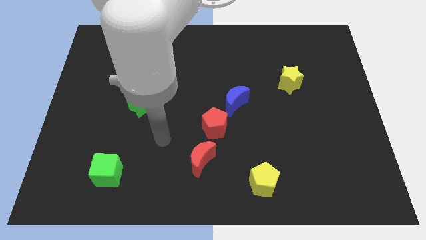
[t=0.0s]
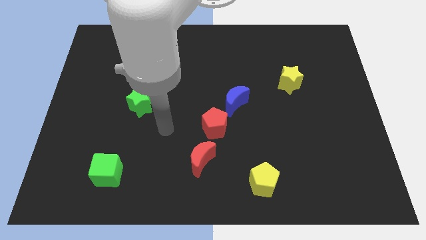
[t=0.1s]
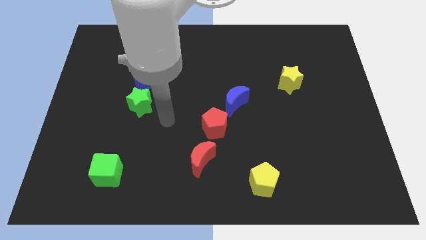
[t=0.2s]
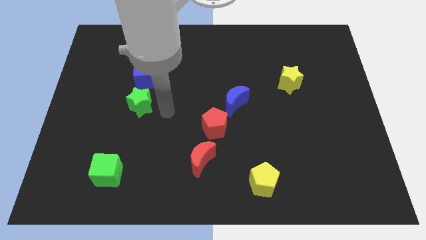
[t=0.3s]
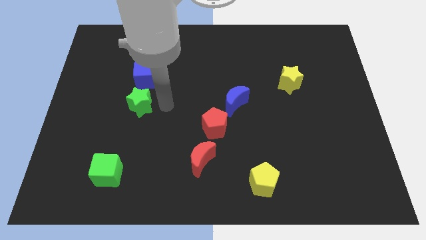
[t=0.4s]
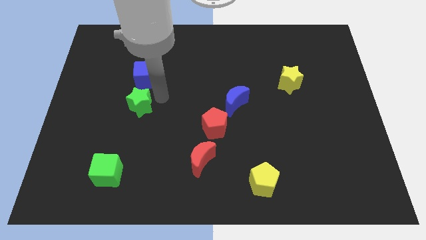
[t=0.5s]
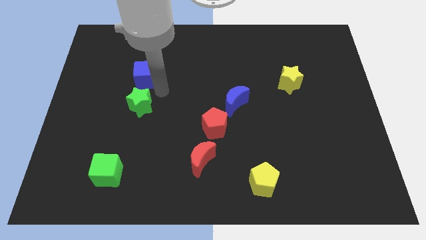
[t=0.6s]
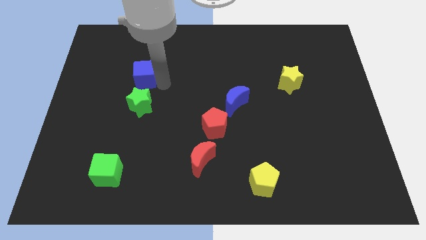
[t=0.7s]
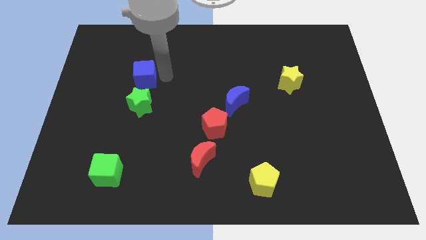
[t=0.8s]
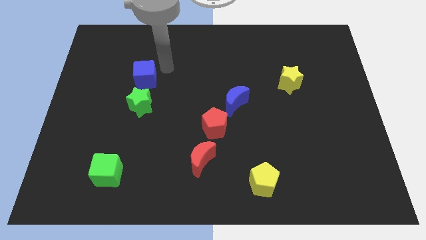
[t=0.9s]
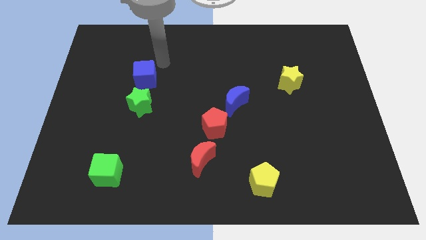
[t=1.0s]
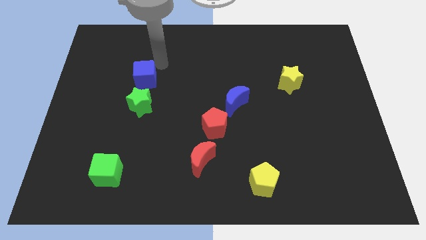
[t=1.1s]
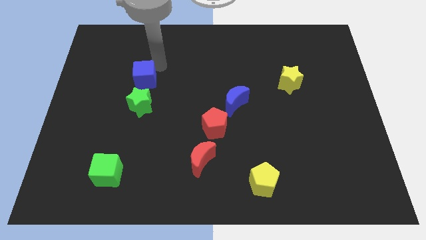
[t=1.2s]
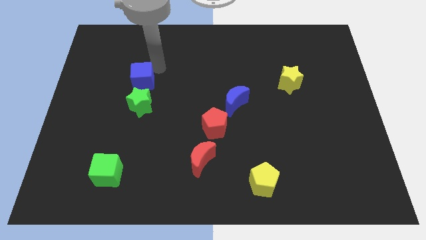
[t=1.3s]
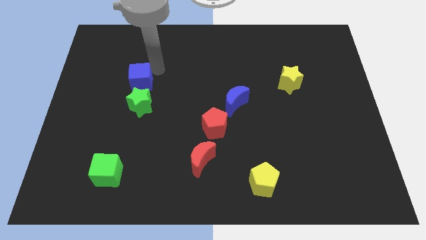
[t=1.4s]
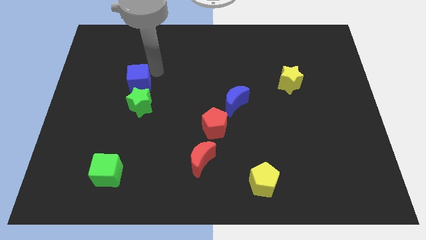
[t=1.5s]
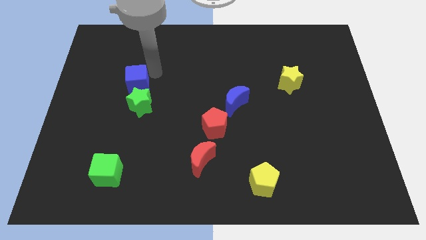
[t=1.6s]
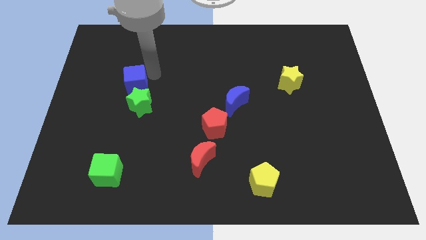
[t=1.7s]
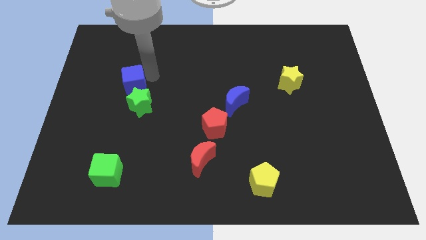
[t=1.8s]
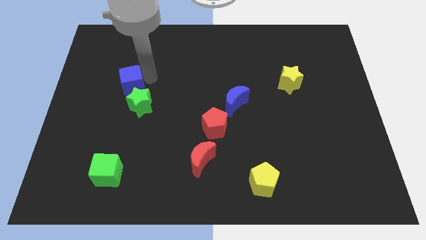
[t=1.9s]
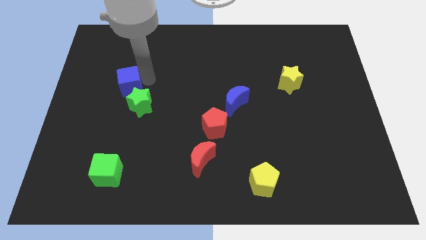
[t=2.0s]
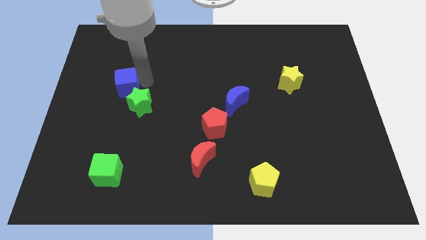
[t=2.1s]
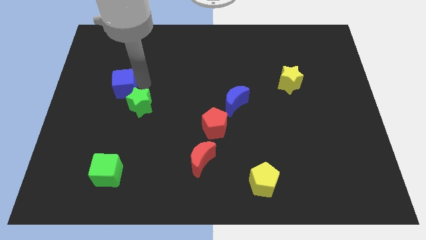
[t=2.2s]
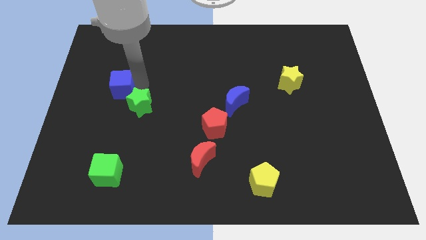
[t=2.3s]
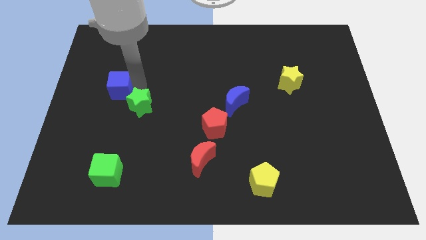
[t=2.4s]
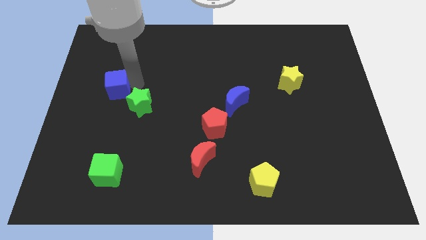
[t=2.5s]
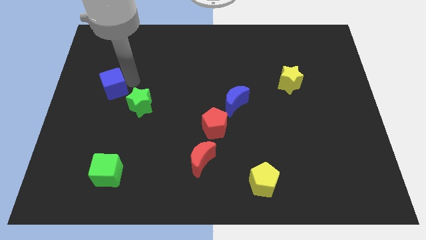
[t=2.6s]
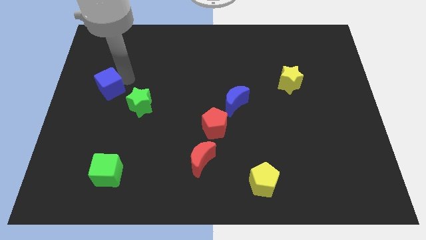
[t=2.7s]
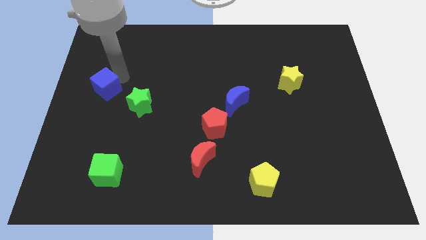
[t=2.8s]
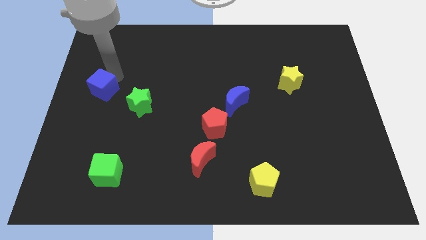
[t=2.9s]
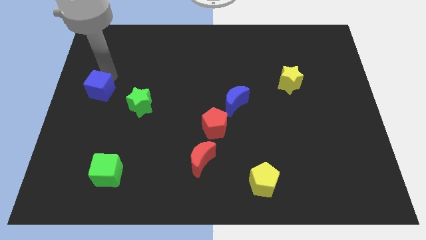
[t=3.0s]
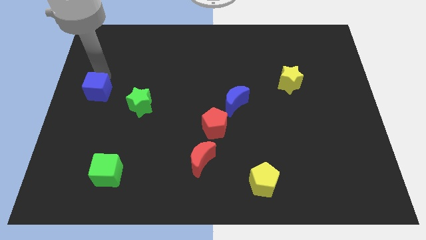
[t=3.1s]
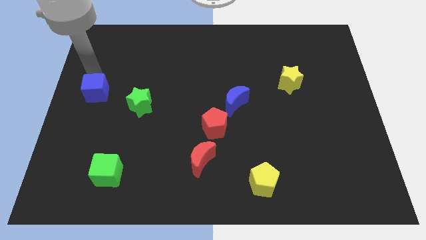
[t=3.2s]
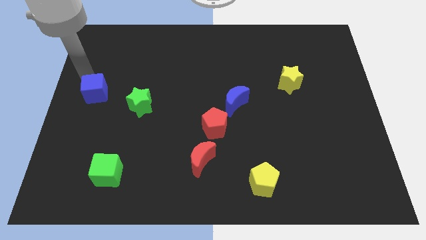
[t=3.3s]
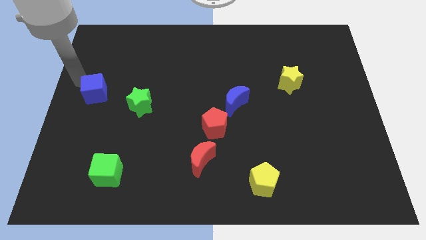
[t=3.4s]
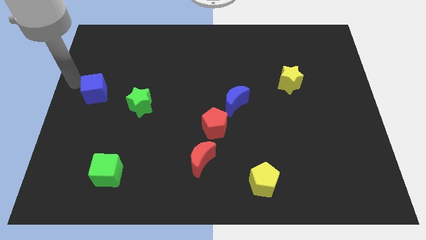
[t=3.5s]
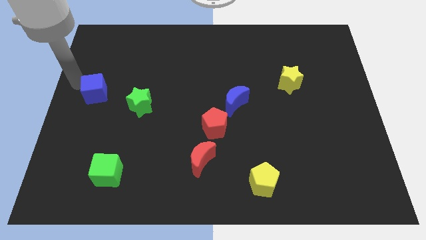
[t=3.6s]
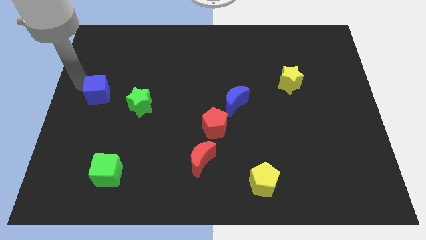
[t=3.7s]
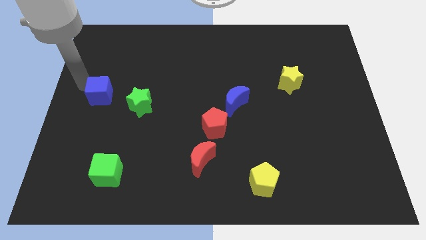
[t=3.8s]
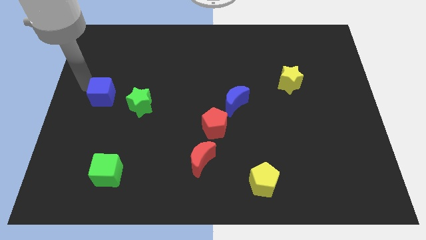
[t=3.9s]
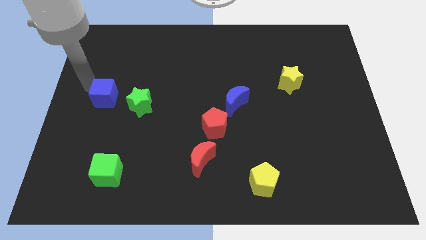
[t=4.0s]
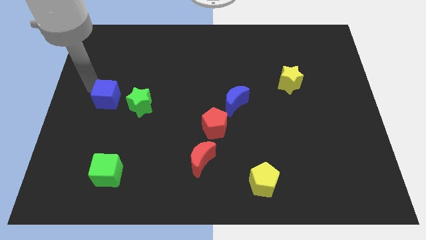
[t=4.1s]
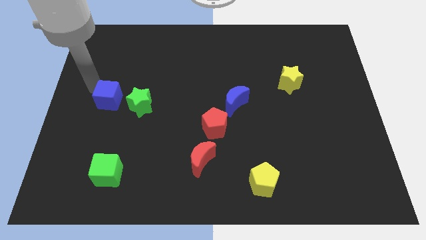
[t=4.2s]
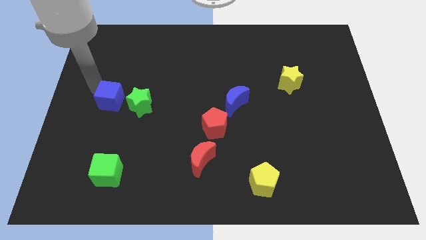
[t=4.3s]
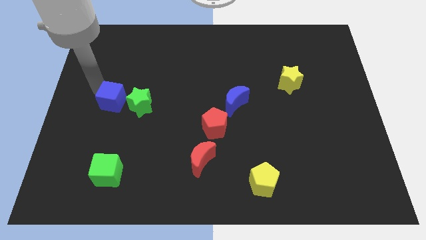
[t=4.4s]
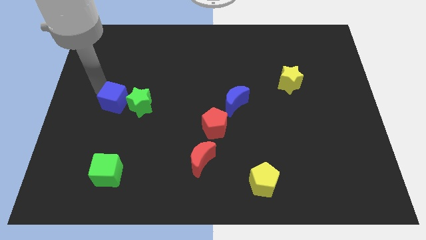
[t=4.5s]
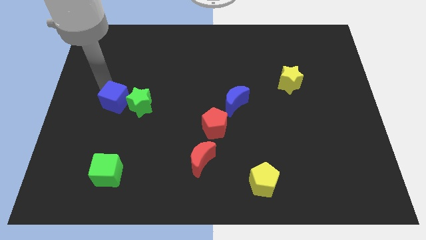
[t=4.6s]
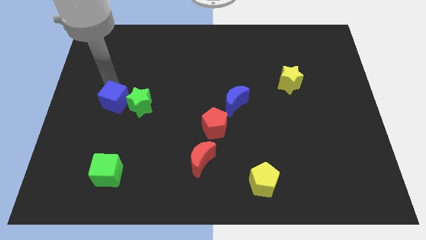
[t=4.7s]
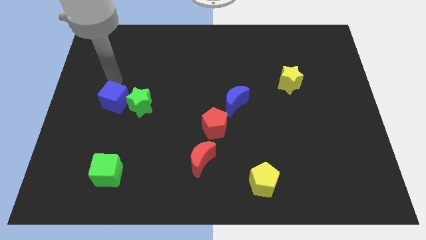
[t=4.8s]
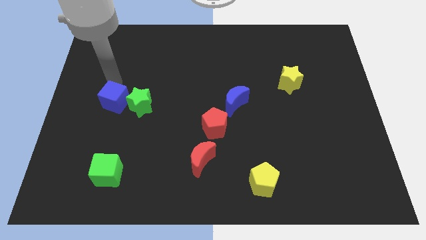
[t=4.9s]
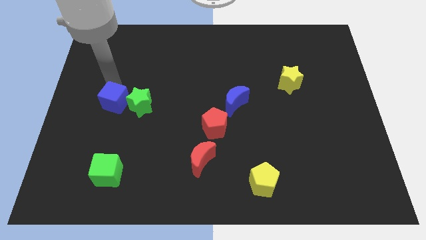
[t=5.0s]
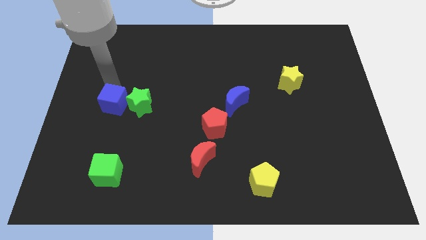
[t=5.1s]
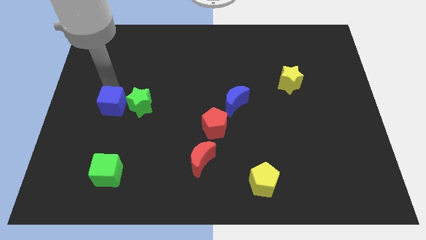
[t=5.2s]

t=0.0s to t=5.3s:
slide the blue cube diagonally down and to the left of the green star

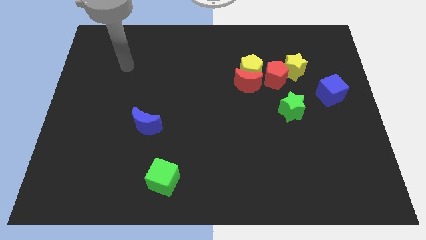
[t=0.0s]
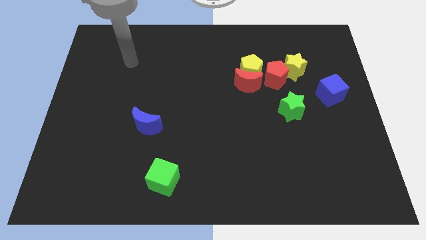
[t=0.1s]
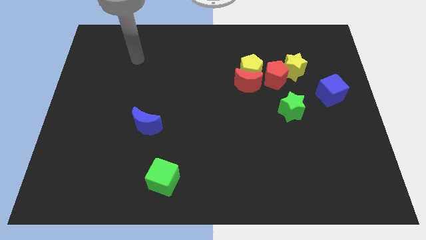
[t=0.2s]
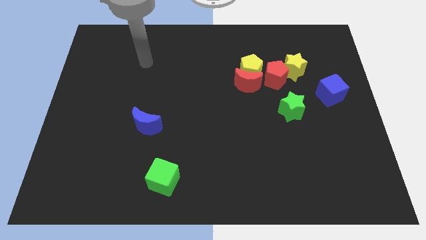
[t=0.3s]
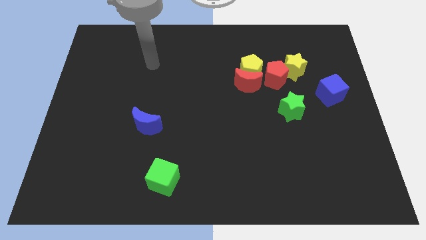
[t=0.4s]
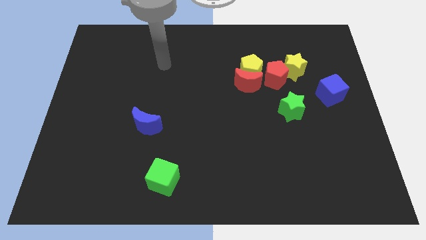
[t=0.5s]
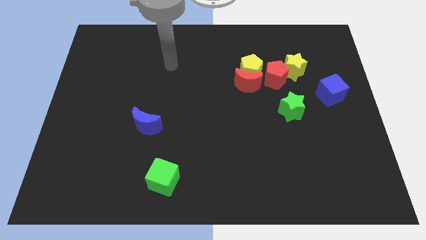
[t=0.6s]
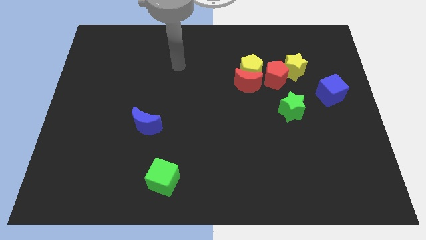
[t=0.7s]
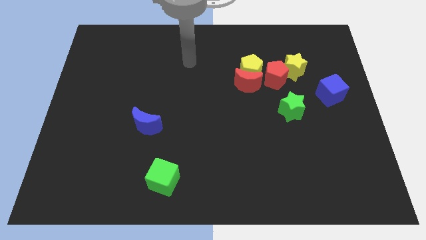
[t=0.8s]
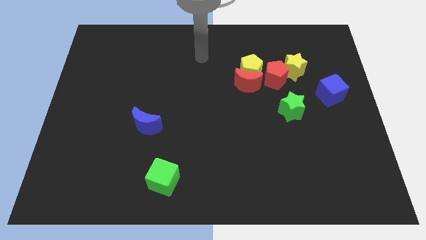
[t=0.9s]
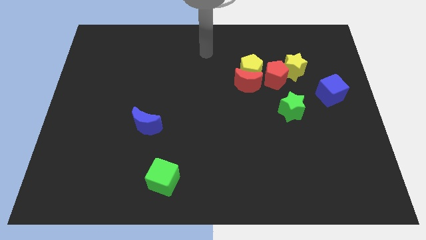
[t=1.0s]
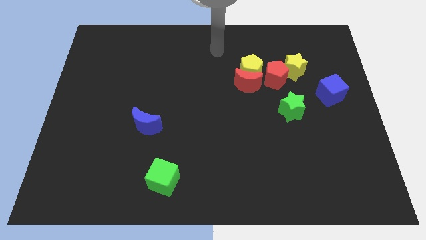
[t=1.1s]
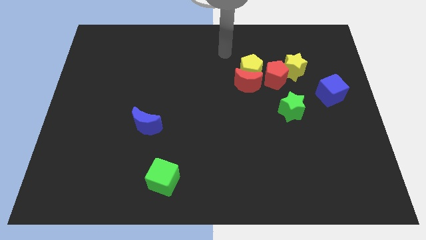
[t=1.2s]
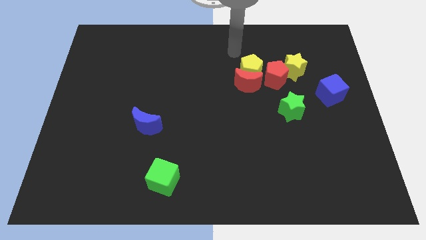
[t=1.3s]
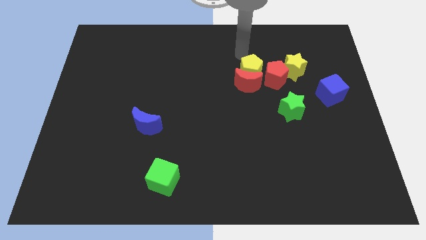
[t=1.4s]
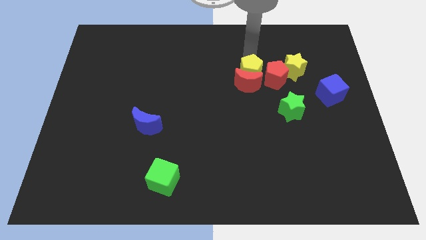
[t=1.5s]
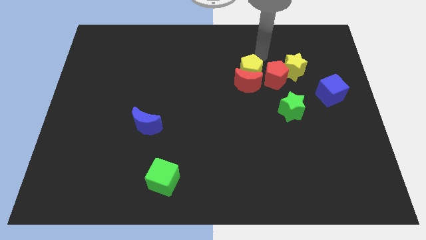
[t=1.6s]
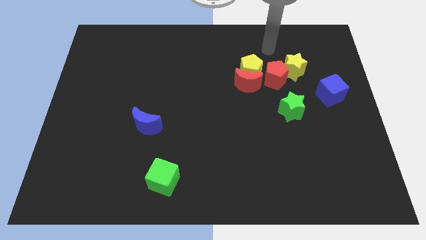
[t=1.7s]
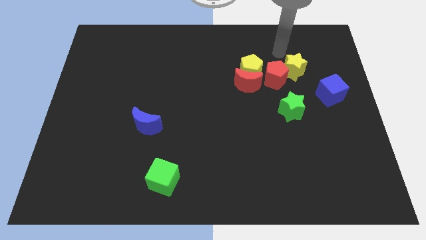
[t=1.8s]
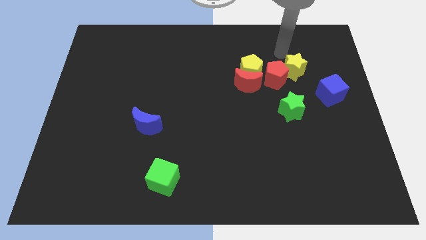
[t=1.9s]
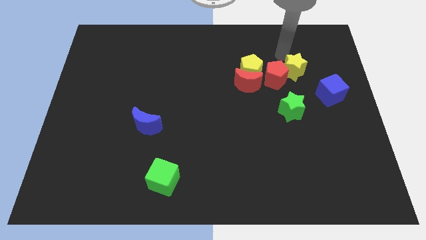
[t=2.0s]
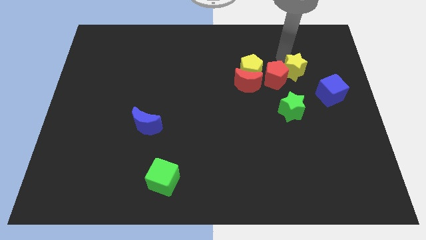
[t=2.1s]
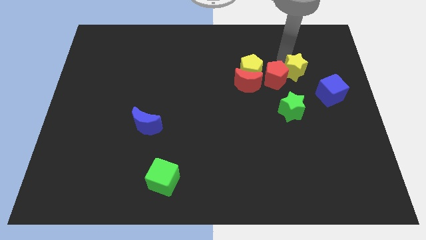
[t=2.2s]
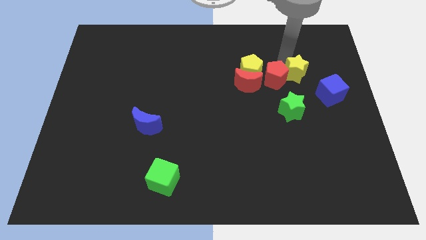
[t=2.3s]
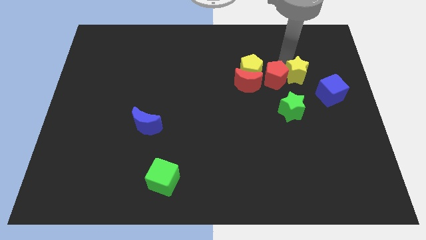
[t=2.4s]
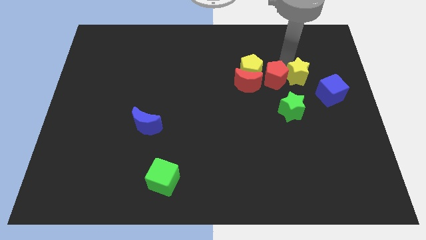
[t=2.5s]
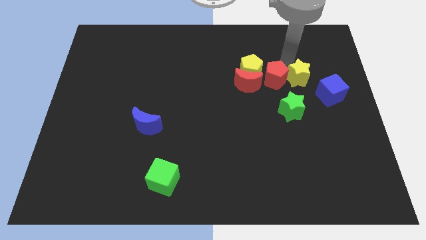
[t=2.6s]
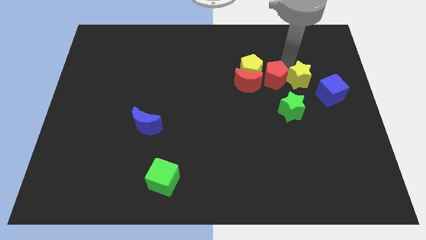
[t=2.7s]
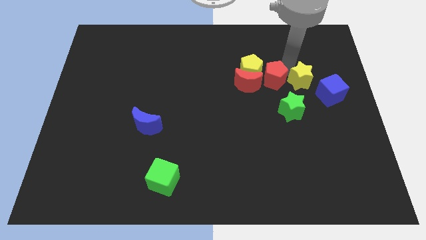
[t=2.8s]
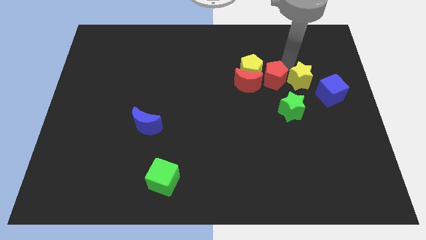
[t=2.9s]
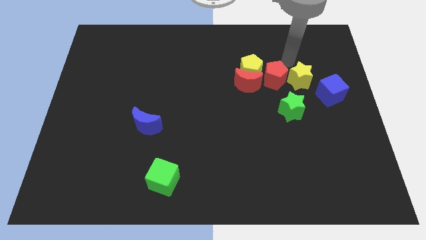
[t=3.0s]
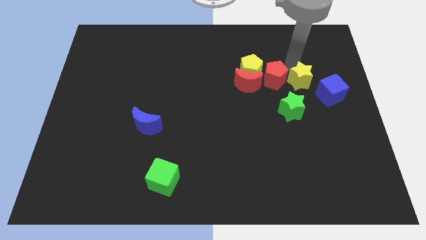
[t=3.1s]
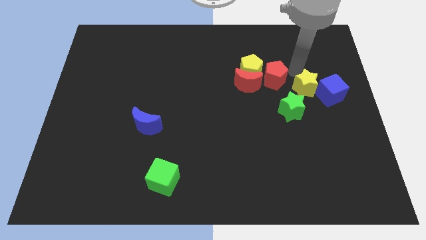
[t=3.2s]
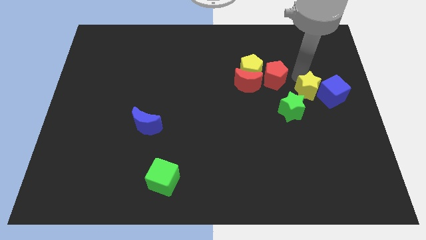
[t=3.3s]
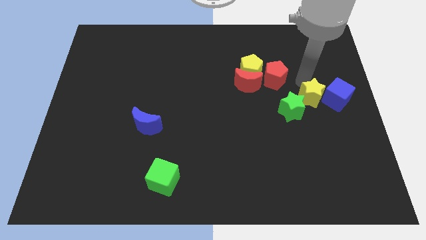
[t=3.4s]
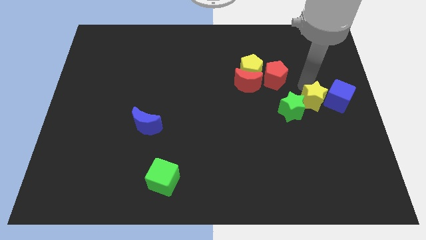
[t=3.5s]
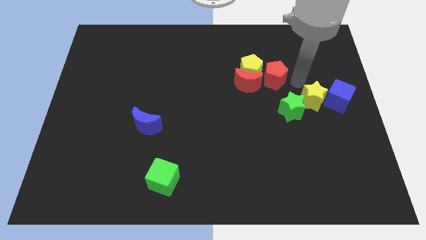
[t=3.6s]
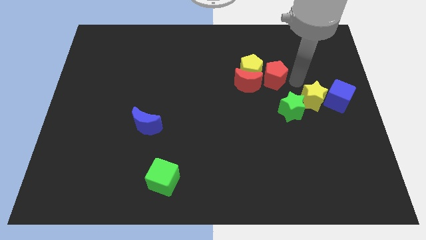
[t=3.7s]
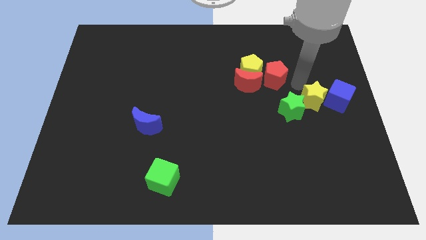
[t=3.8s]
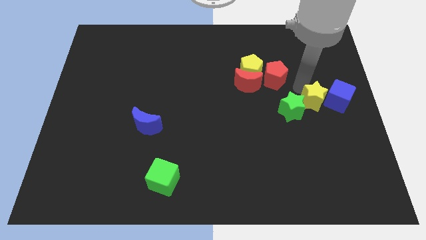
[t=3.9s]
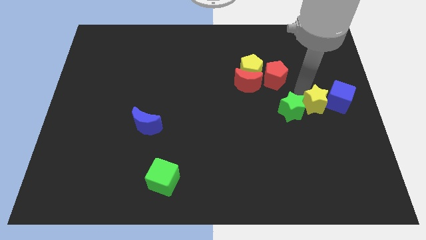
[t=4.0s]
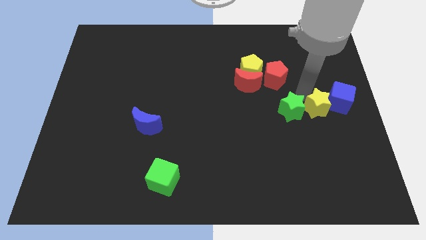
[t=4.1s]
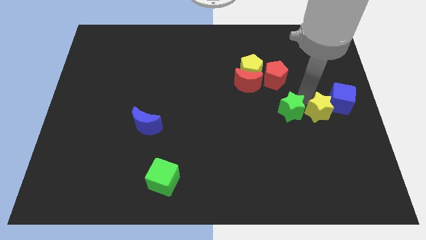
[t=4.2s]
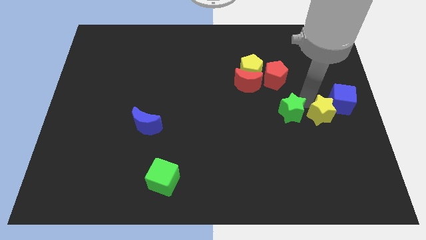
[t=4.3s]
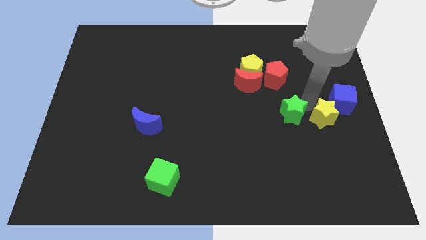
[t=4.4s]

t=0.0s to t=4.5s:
move the yellow star to the bottom of the blue cube
